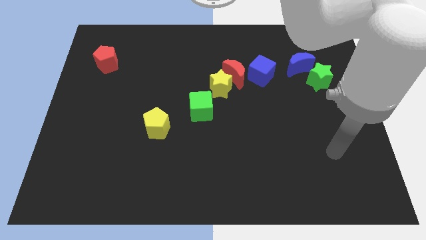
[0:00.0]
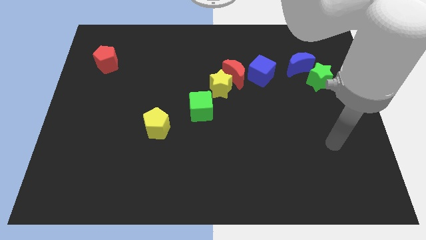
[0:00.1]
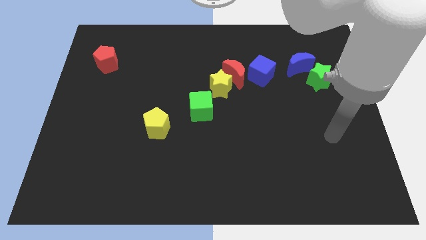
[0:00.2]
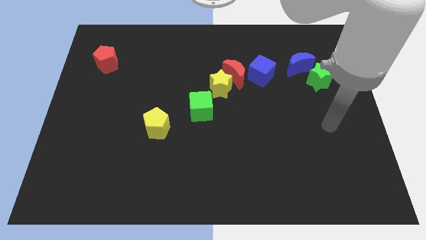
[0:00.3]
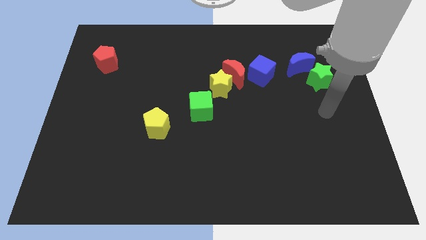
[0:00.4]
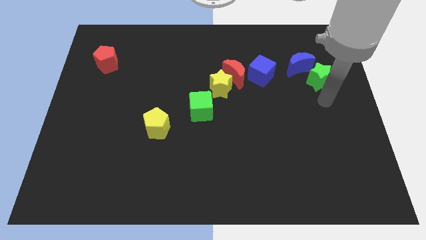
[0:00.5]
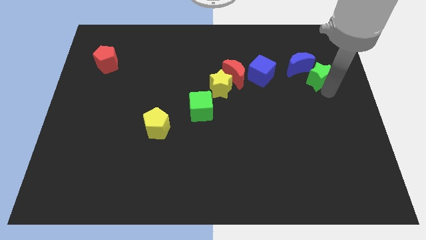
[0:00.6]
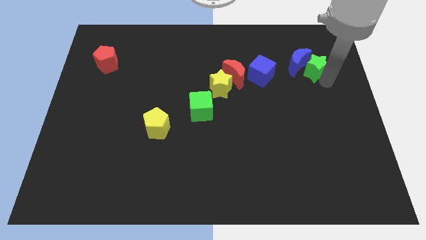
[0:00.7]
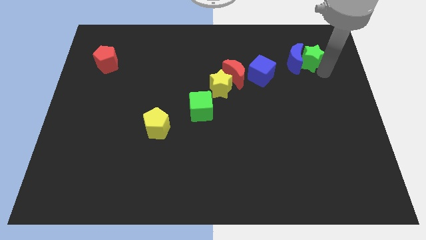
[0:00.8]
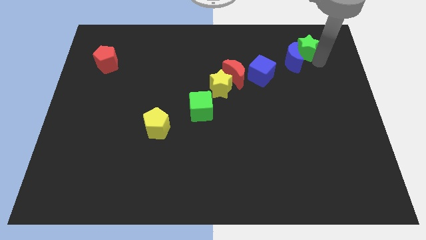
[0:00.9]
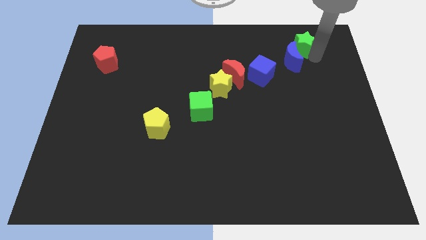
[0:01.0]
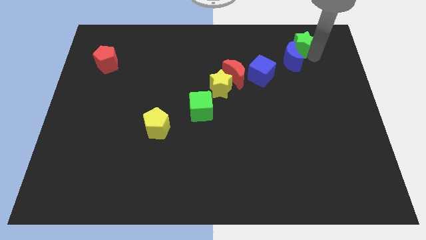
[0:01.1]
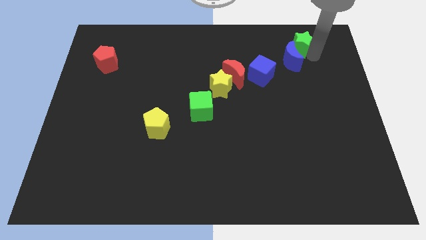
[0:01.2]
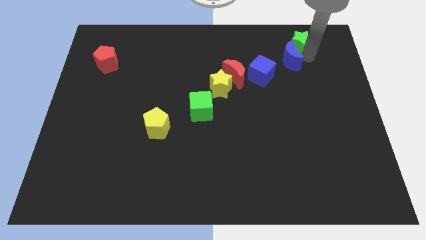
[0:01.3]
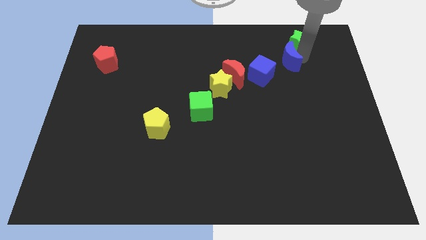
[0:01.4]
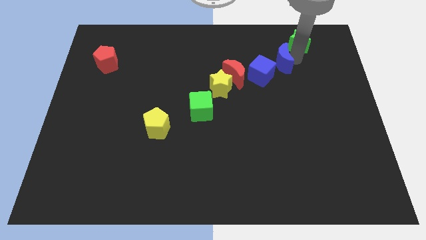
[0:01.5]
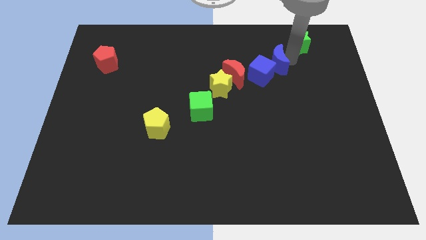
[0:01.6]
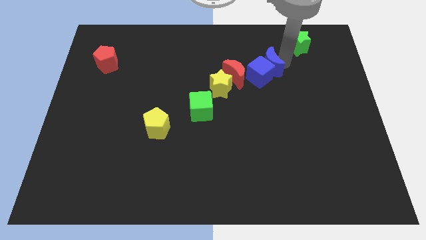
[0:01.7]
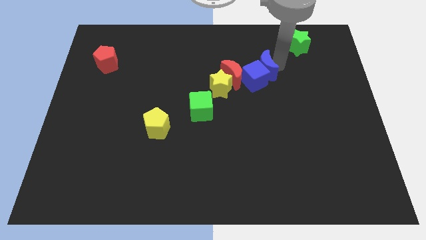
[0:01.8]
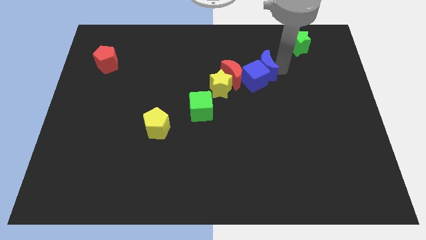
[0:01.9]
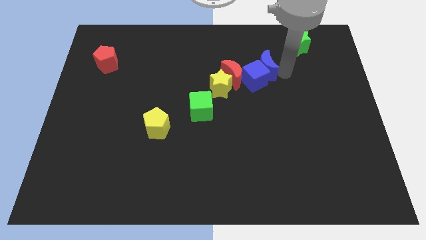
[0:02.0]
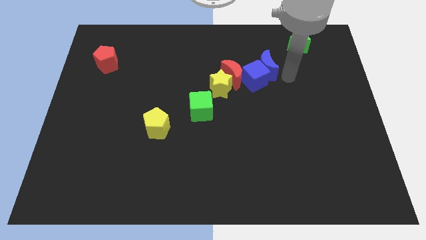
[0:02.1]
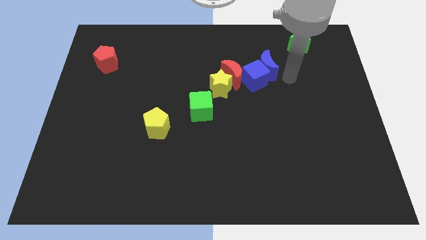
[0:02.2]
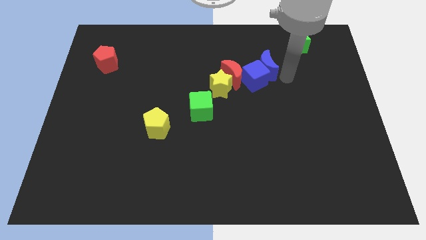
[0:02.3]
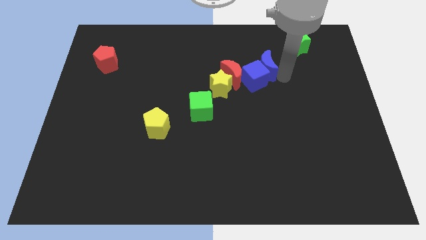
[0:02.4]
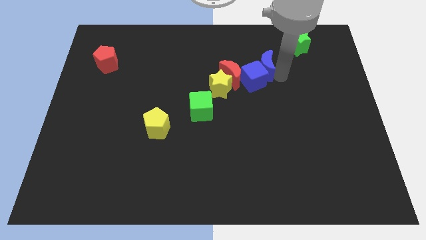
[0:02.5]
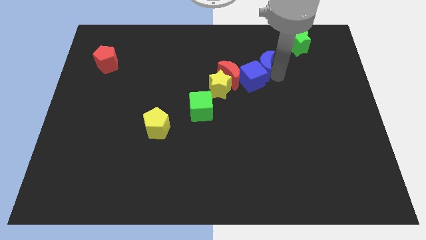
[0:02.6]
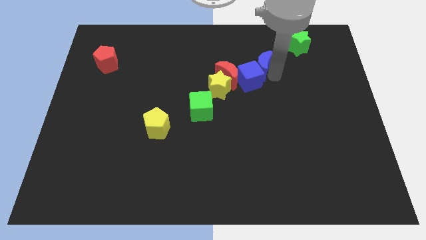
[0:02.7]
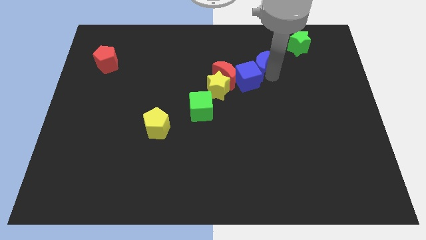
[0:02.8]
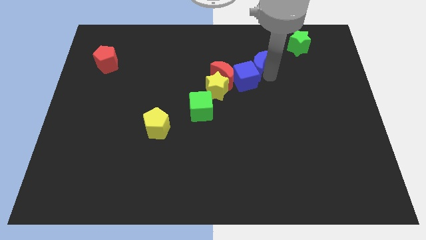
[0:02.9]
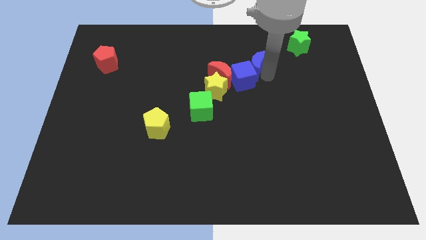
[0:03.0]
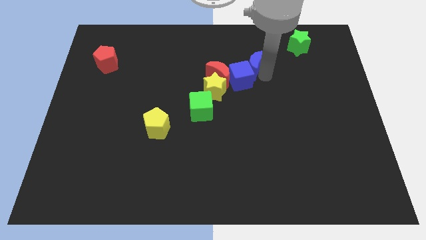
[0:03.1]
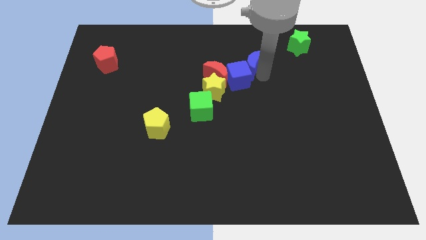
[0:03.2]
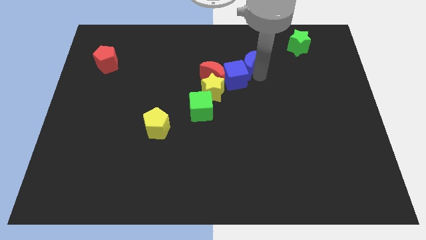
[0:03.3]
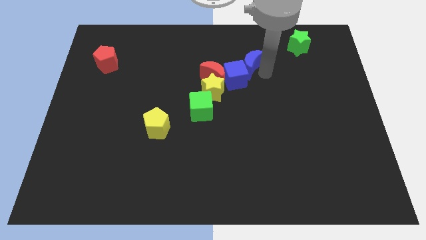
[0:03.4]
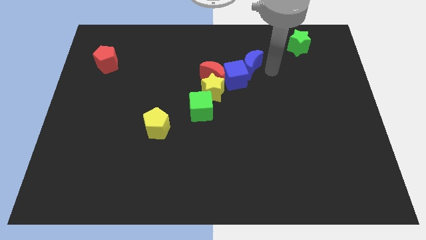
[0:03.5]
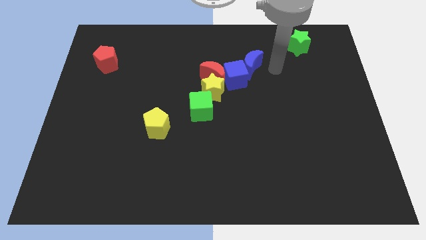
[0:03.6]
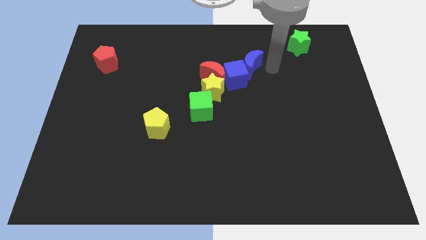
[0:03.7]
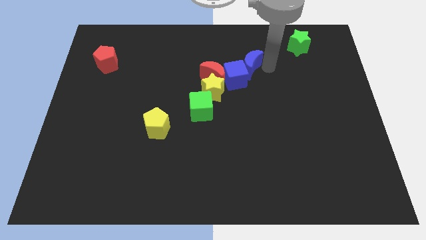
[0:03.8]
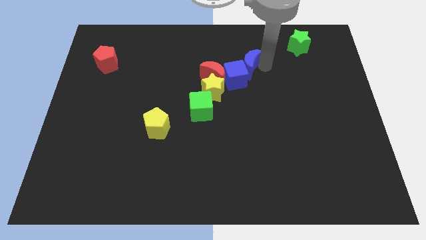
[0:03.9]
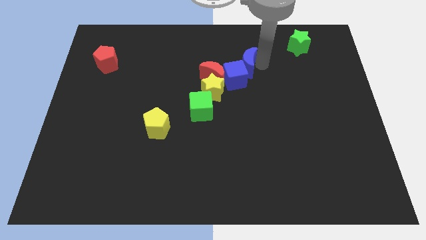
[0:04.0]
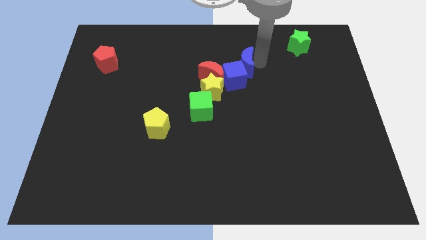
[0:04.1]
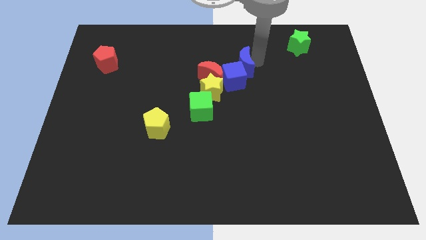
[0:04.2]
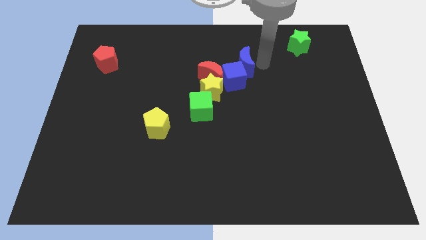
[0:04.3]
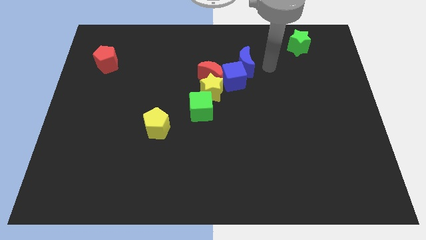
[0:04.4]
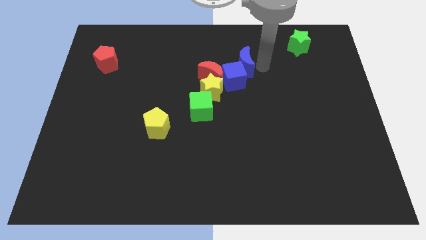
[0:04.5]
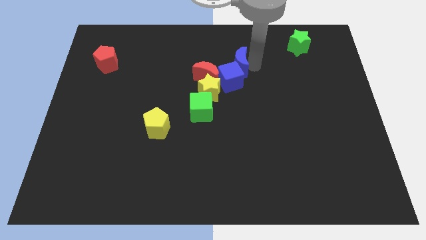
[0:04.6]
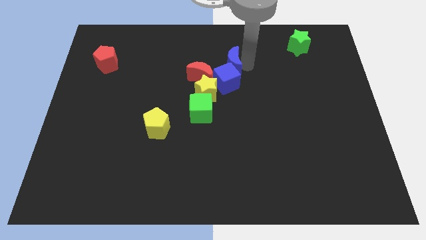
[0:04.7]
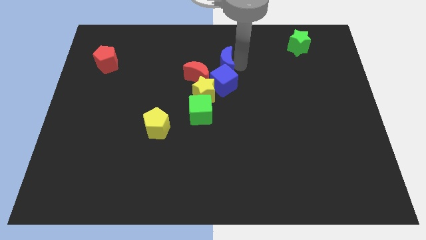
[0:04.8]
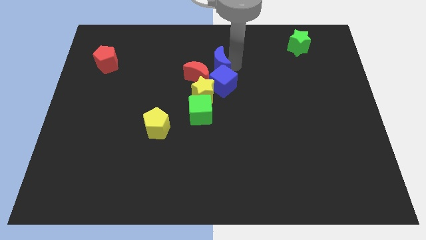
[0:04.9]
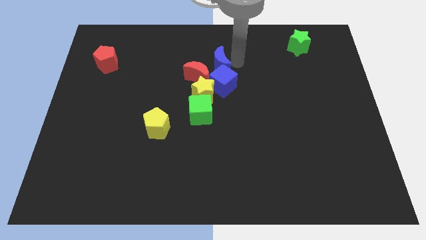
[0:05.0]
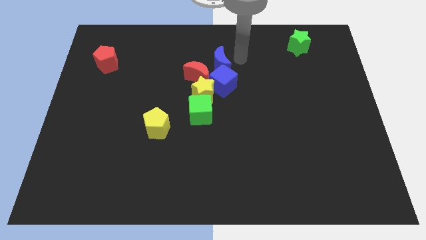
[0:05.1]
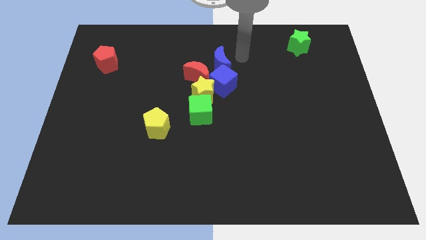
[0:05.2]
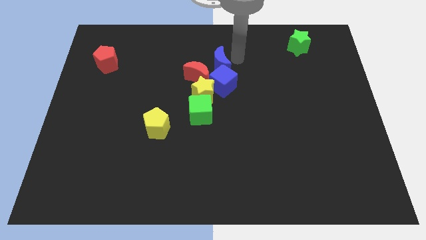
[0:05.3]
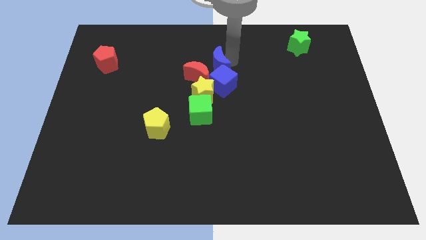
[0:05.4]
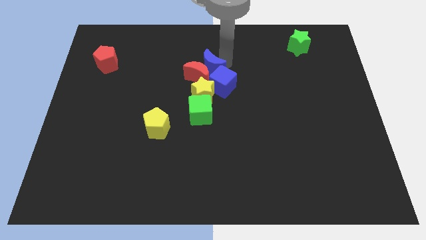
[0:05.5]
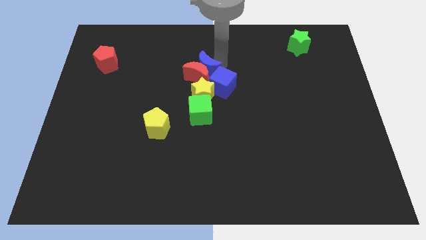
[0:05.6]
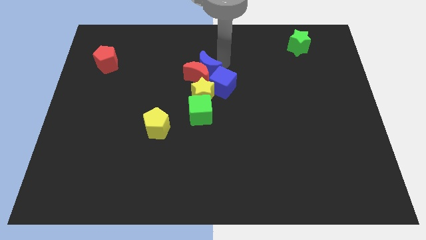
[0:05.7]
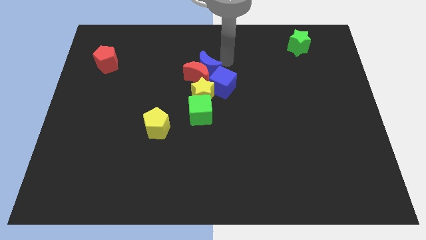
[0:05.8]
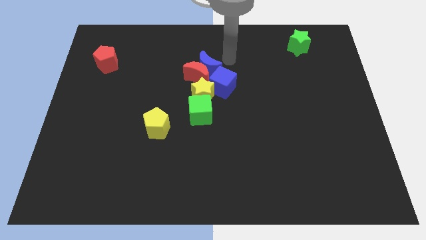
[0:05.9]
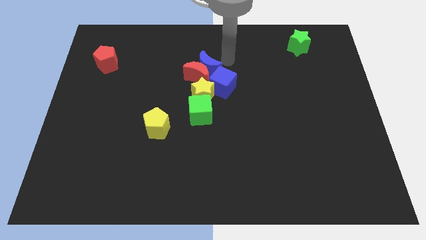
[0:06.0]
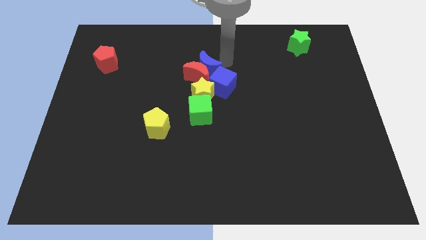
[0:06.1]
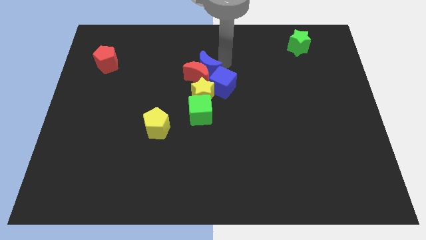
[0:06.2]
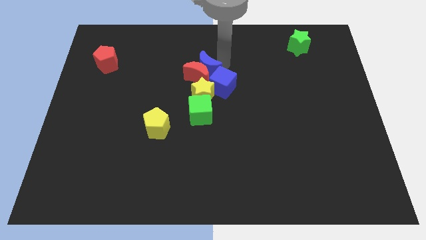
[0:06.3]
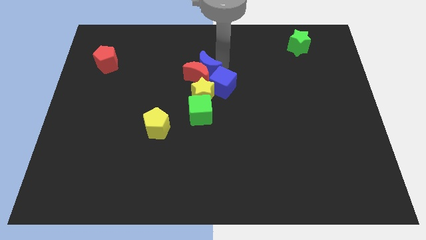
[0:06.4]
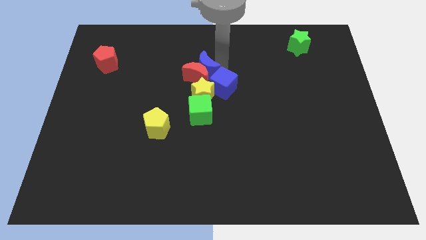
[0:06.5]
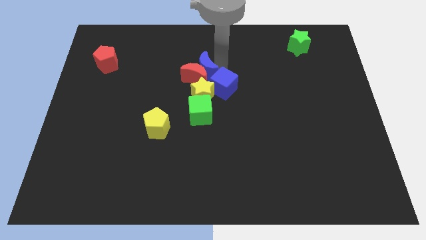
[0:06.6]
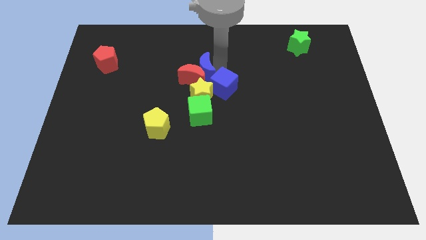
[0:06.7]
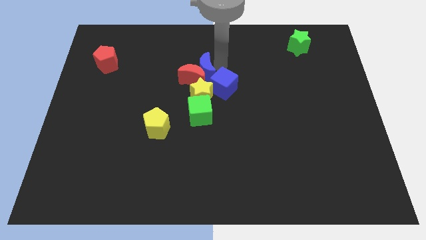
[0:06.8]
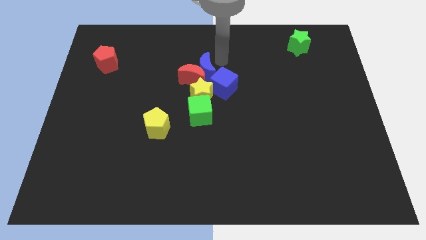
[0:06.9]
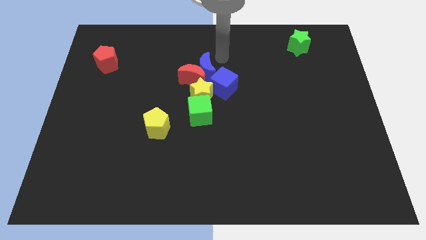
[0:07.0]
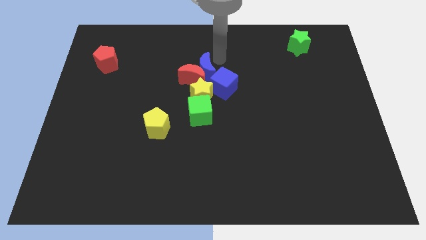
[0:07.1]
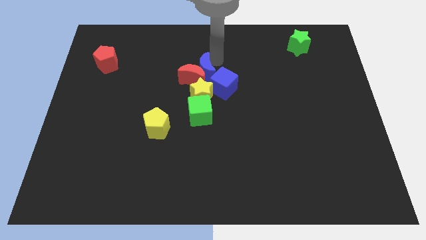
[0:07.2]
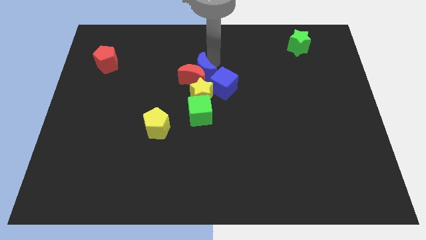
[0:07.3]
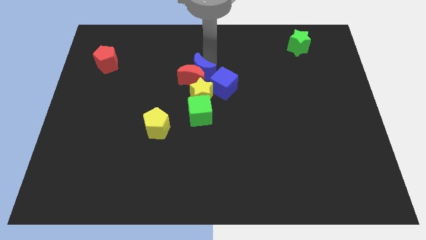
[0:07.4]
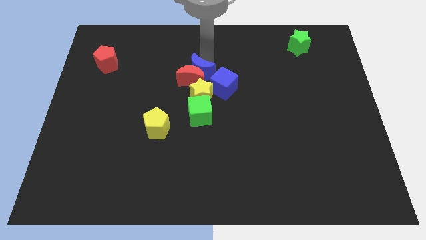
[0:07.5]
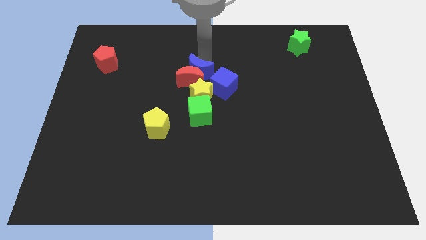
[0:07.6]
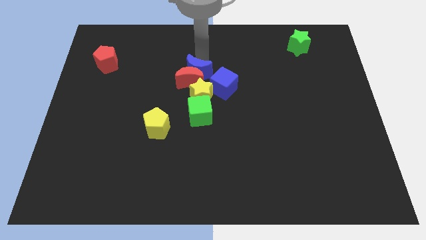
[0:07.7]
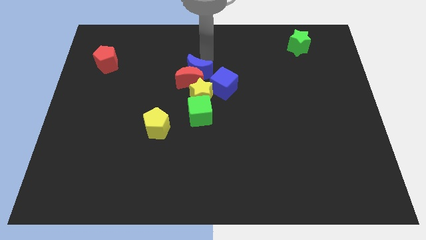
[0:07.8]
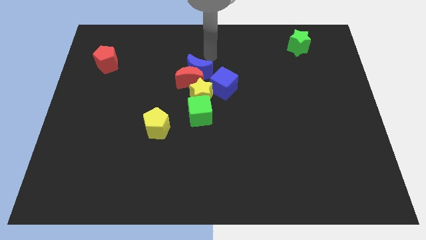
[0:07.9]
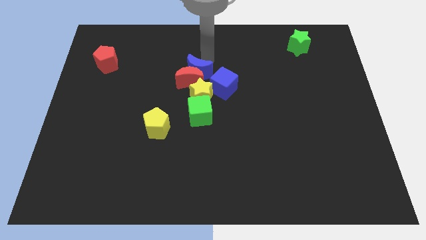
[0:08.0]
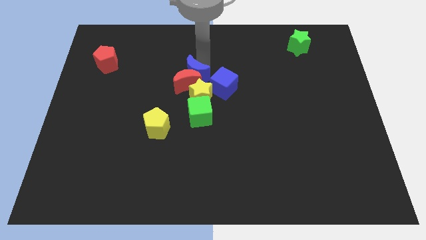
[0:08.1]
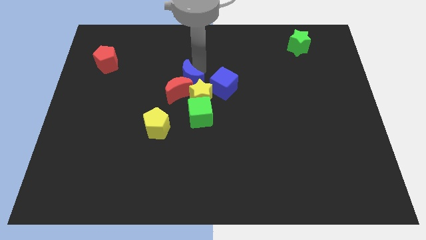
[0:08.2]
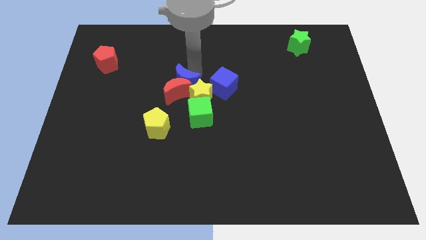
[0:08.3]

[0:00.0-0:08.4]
push the blue moon to the top left of the green cube
